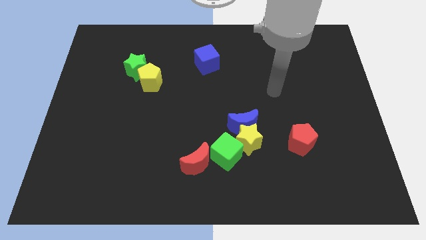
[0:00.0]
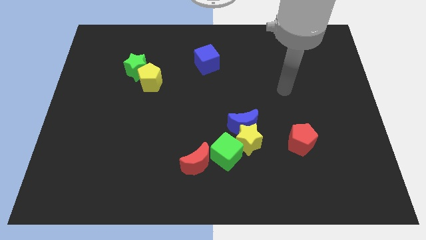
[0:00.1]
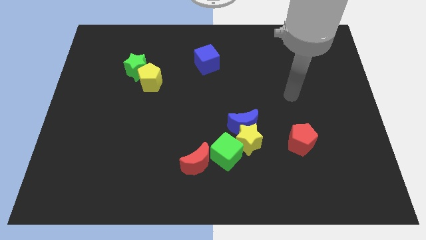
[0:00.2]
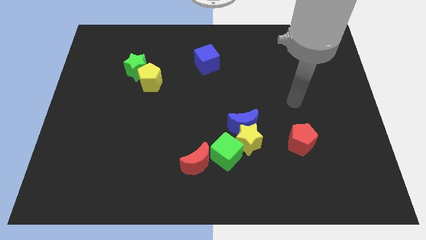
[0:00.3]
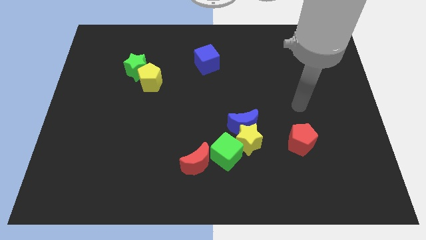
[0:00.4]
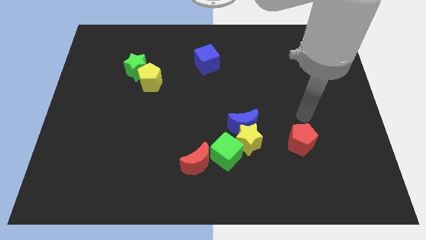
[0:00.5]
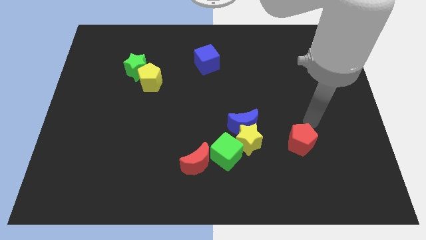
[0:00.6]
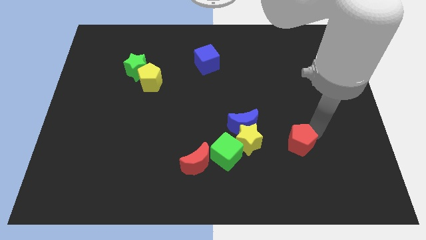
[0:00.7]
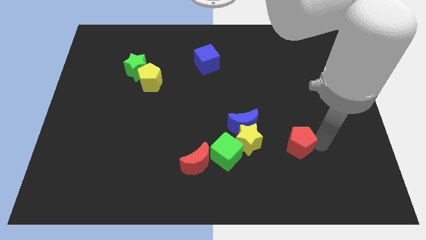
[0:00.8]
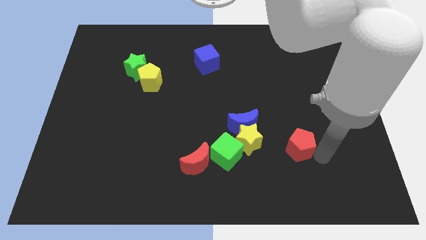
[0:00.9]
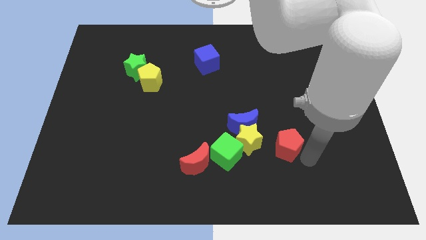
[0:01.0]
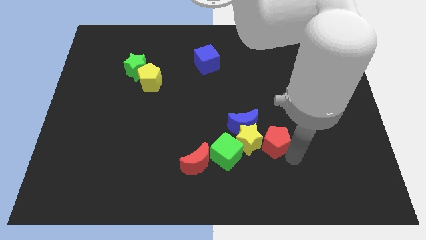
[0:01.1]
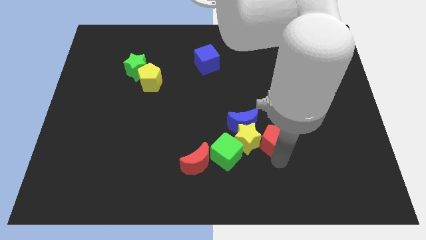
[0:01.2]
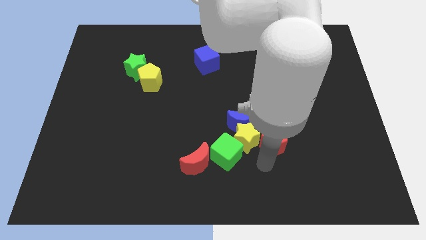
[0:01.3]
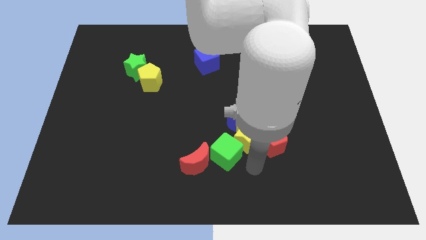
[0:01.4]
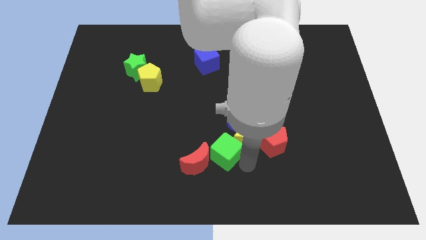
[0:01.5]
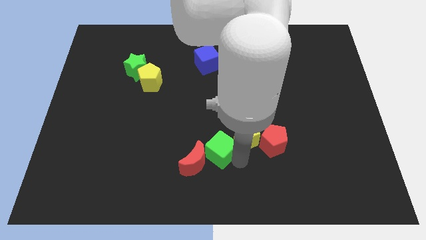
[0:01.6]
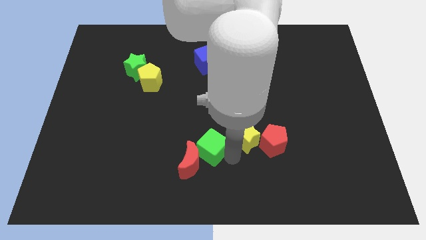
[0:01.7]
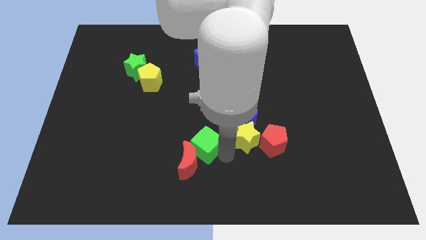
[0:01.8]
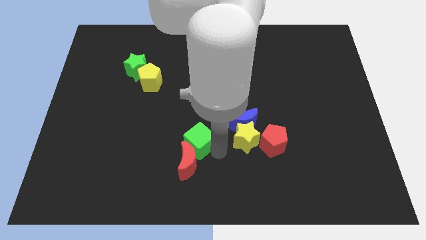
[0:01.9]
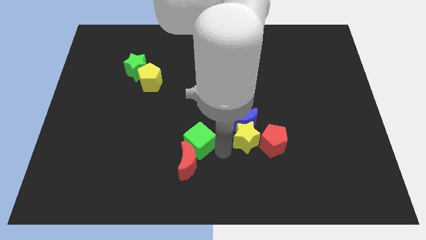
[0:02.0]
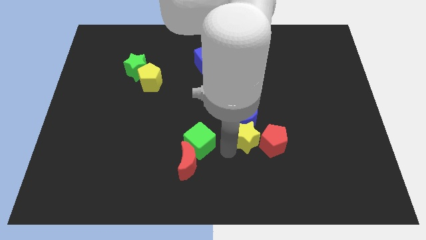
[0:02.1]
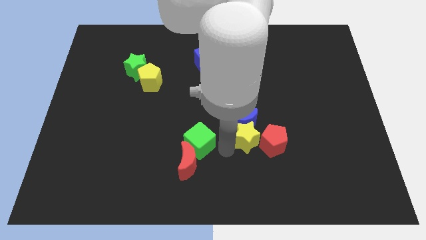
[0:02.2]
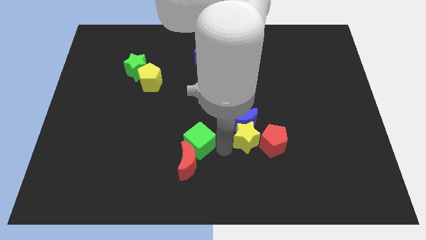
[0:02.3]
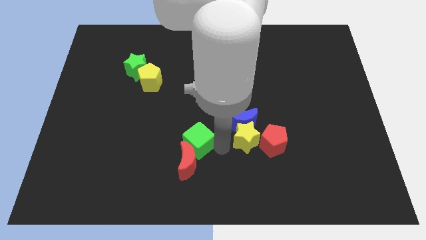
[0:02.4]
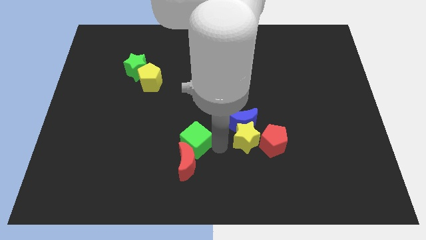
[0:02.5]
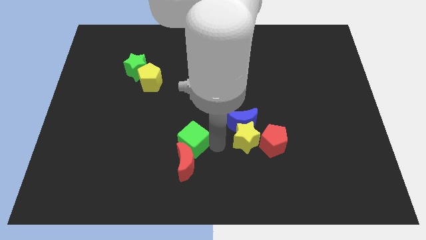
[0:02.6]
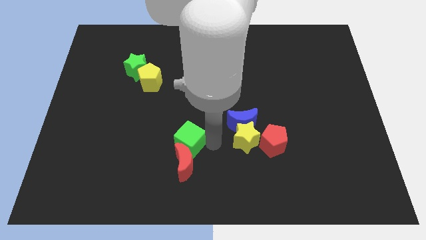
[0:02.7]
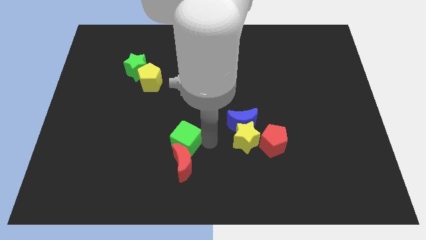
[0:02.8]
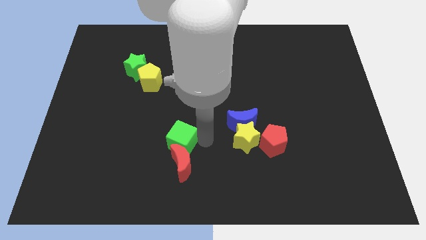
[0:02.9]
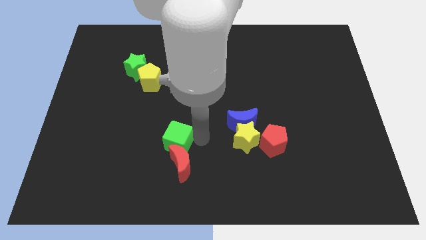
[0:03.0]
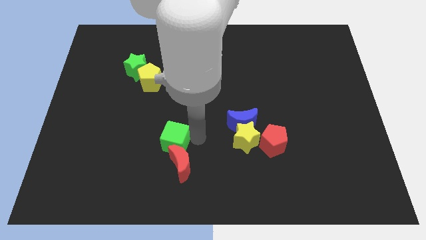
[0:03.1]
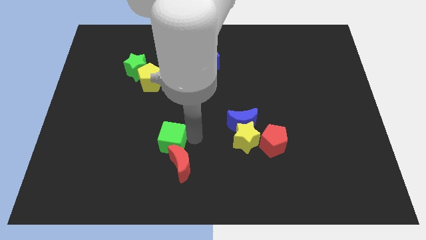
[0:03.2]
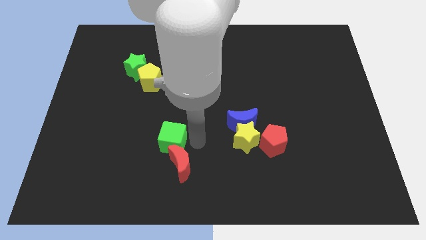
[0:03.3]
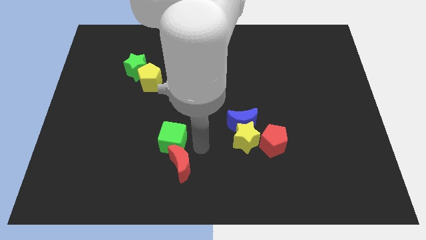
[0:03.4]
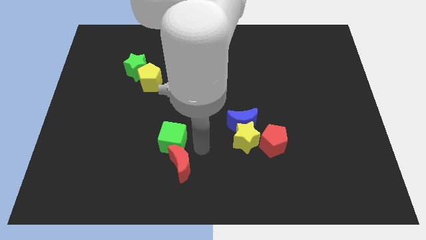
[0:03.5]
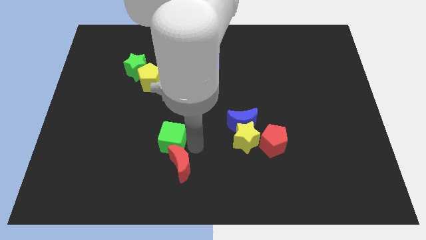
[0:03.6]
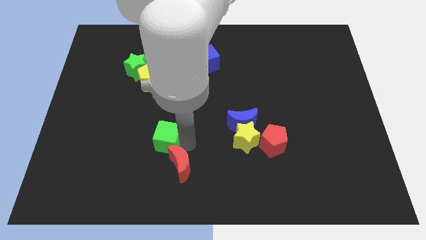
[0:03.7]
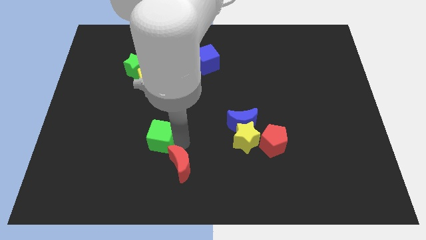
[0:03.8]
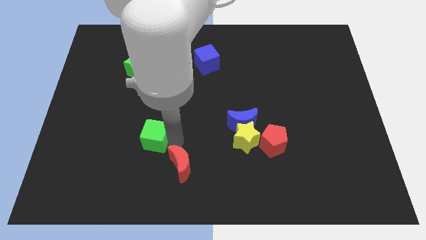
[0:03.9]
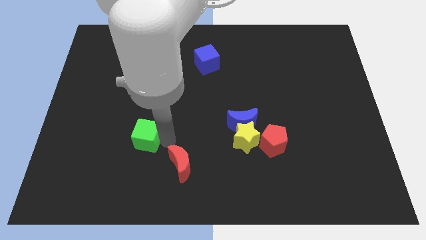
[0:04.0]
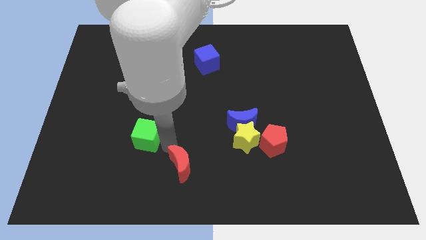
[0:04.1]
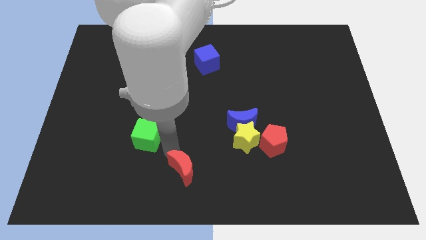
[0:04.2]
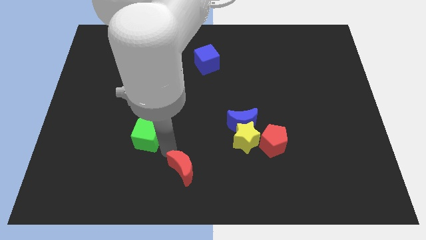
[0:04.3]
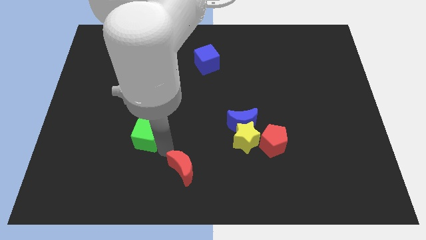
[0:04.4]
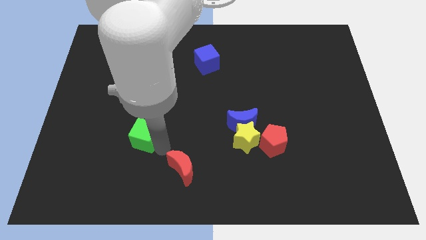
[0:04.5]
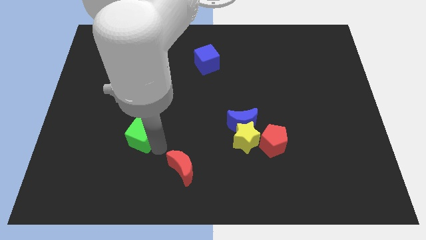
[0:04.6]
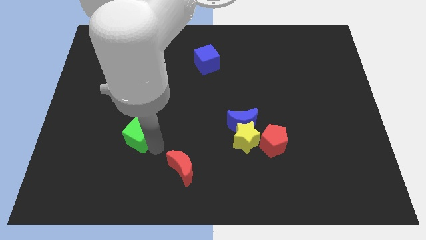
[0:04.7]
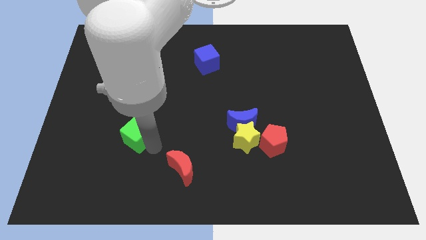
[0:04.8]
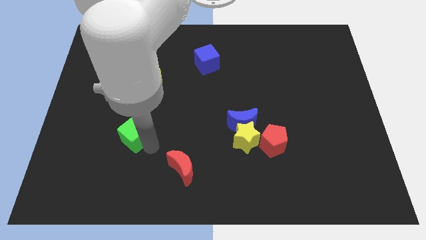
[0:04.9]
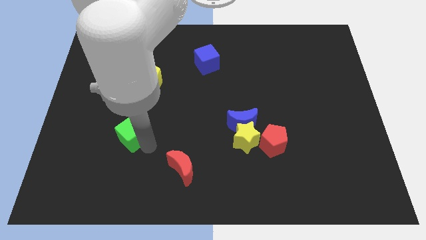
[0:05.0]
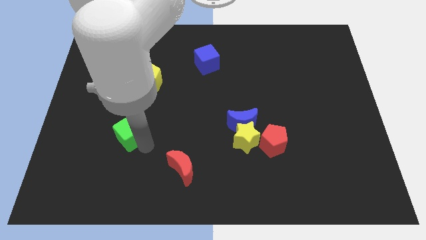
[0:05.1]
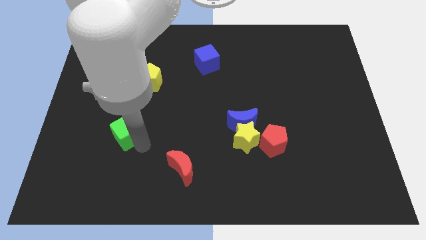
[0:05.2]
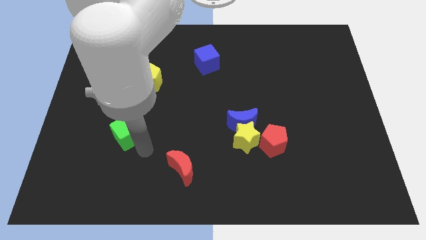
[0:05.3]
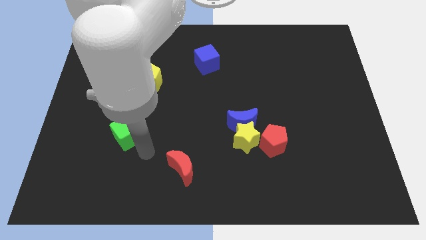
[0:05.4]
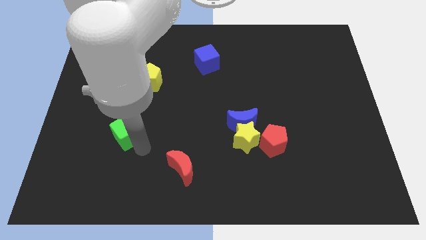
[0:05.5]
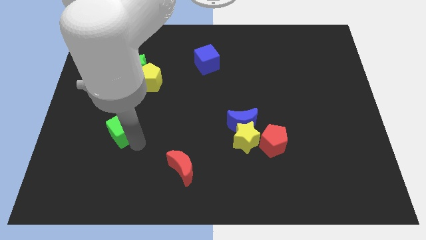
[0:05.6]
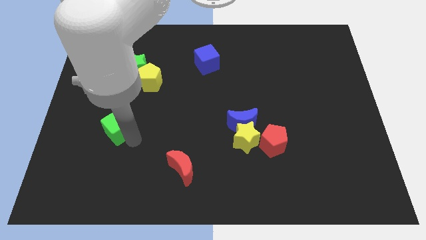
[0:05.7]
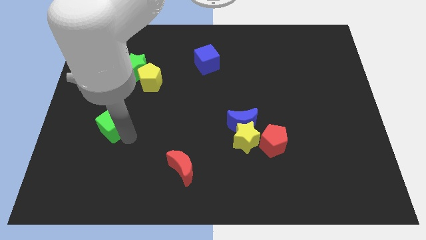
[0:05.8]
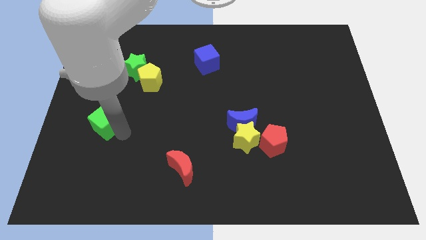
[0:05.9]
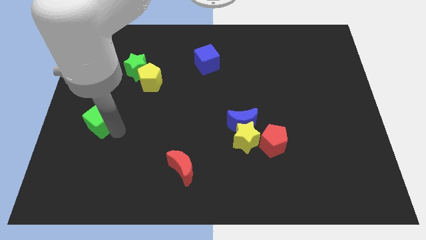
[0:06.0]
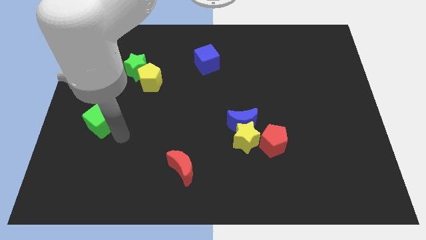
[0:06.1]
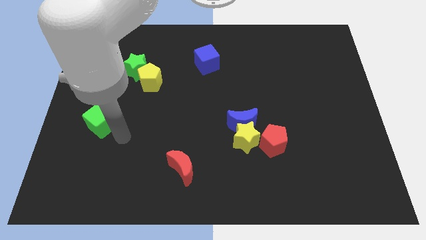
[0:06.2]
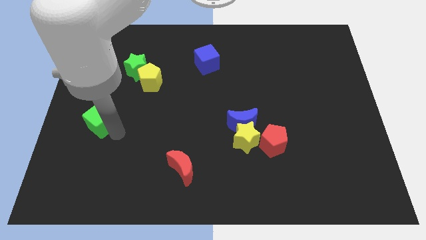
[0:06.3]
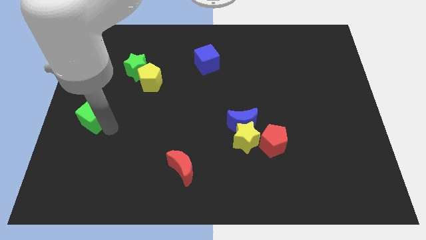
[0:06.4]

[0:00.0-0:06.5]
push the green cube to the left side of the board

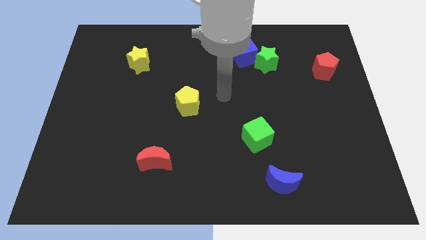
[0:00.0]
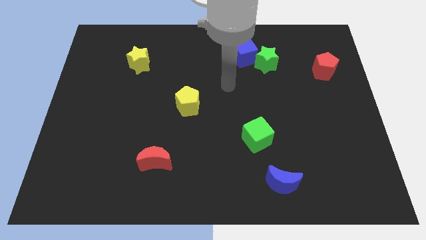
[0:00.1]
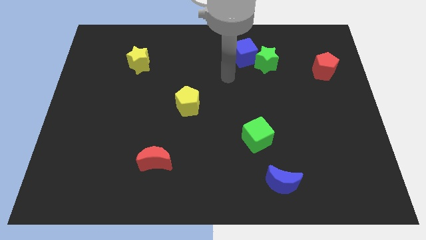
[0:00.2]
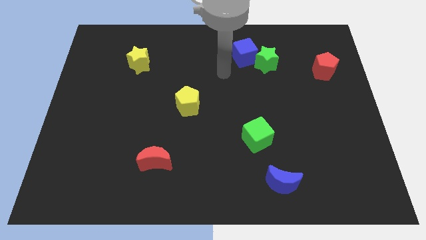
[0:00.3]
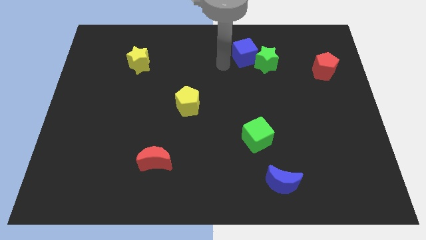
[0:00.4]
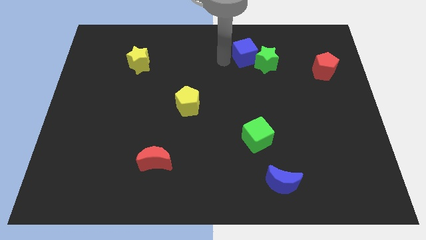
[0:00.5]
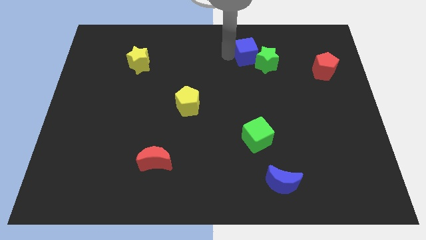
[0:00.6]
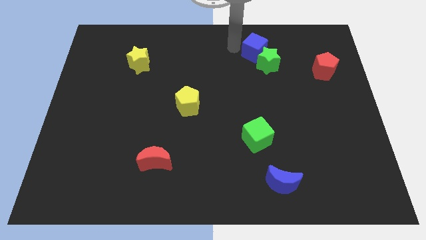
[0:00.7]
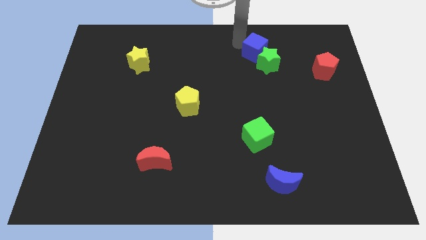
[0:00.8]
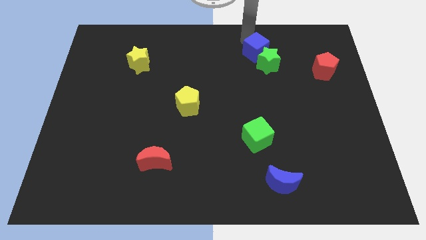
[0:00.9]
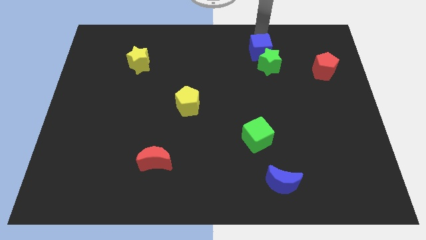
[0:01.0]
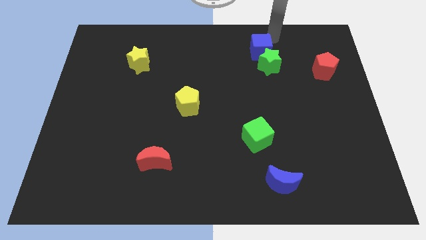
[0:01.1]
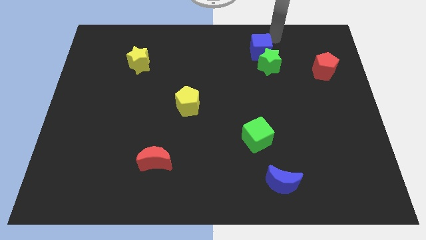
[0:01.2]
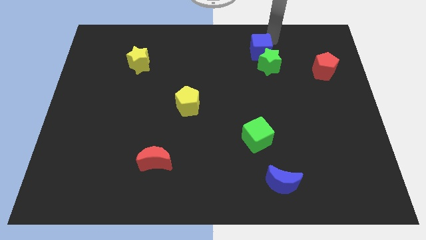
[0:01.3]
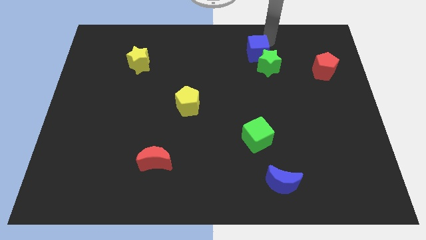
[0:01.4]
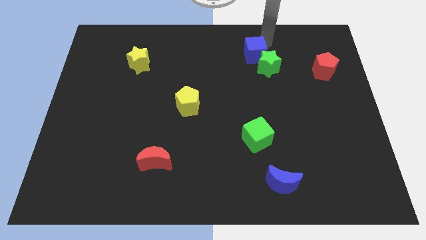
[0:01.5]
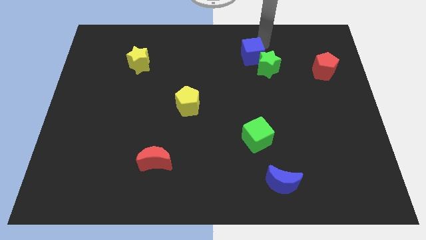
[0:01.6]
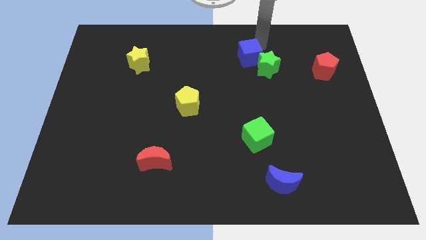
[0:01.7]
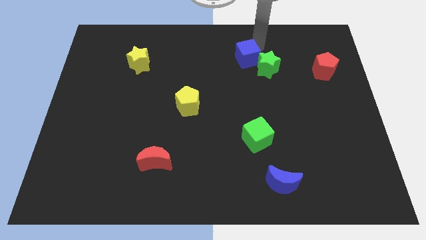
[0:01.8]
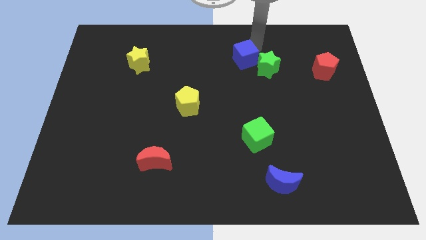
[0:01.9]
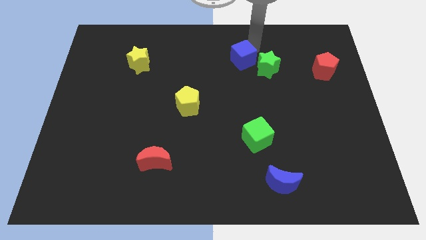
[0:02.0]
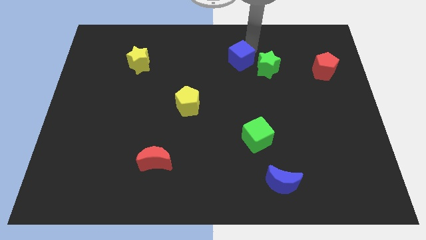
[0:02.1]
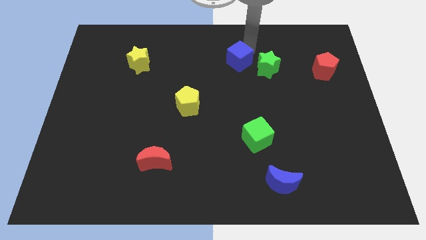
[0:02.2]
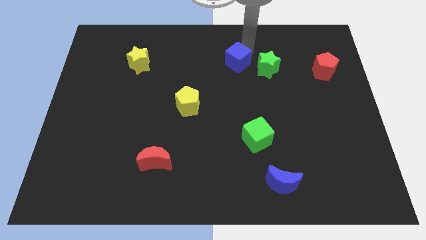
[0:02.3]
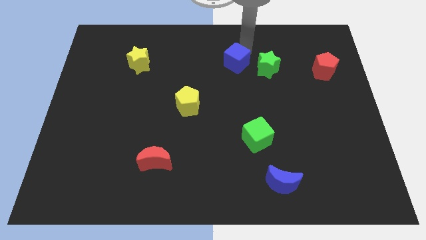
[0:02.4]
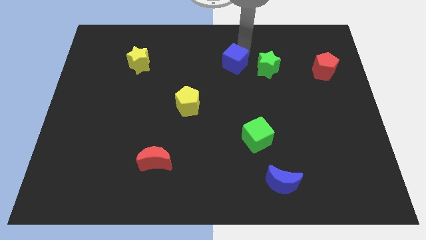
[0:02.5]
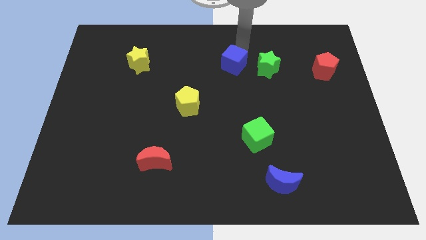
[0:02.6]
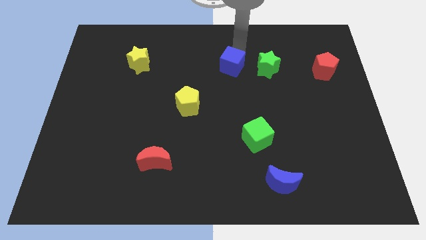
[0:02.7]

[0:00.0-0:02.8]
slide the blue cube to the middle
